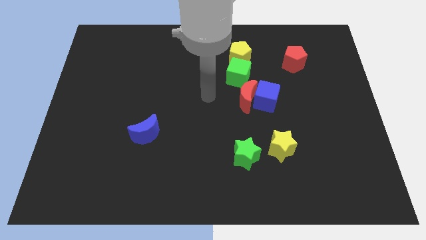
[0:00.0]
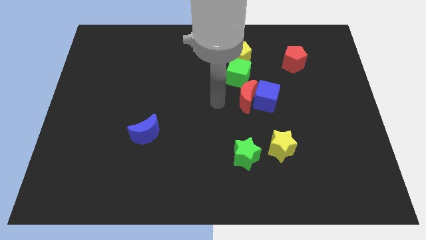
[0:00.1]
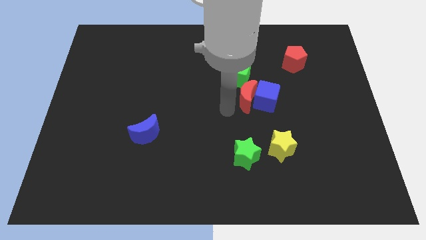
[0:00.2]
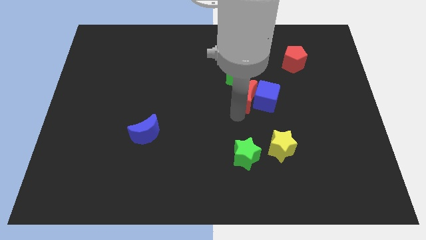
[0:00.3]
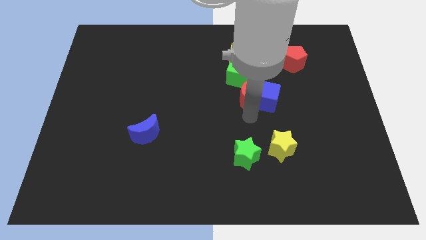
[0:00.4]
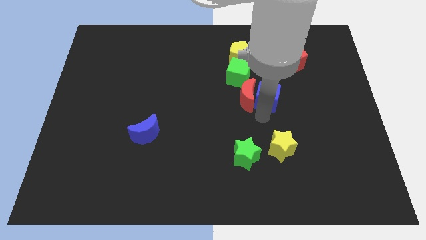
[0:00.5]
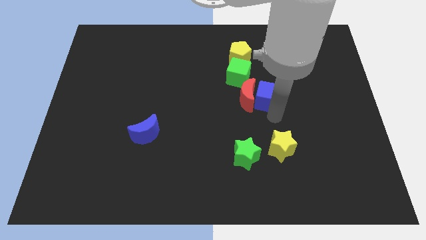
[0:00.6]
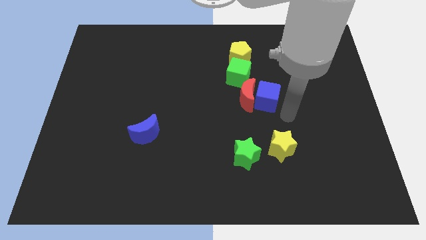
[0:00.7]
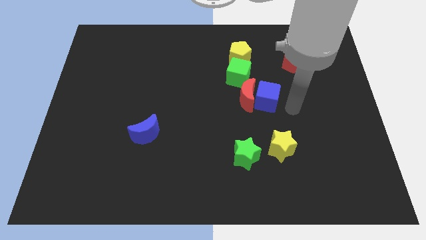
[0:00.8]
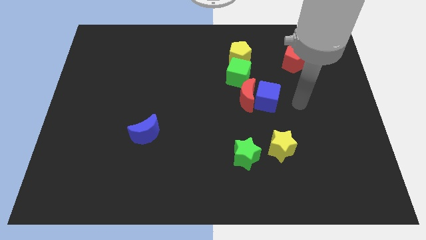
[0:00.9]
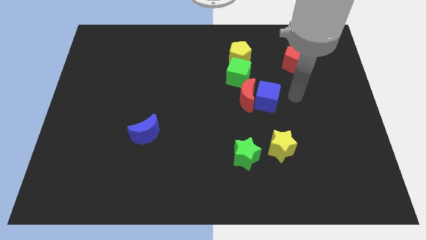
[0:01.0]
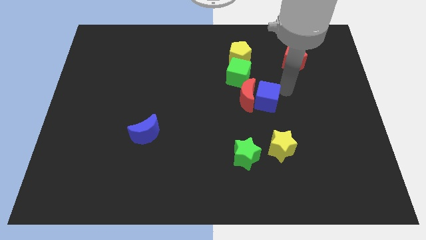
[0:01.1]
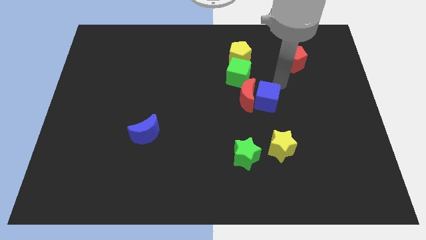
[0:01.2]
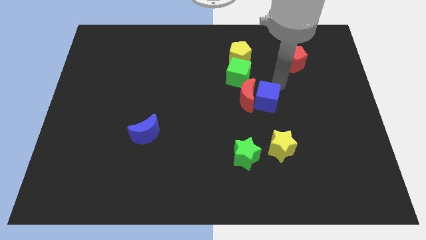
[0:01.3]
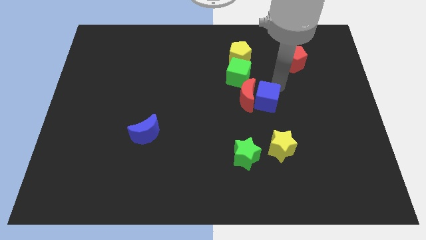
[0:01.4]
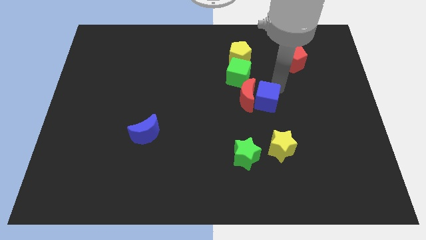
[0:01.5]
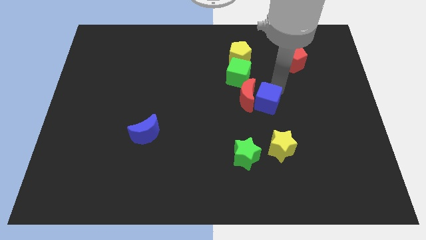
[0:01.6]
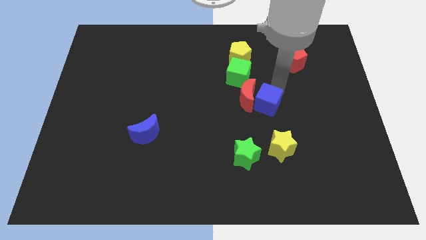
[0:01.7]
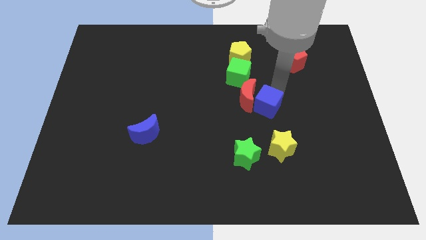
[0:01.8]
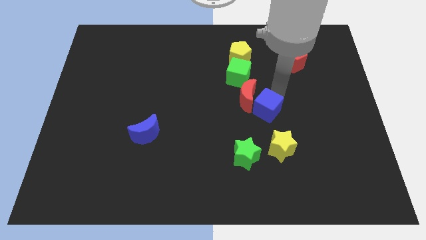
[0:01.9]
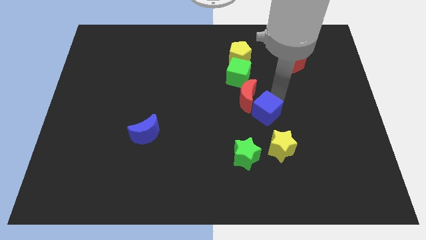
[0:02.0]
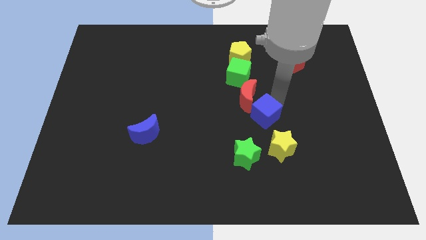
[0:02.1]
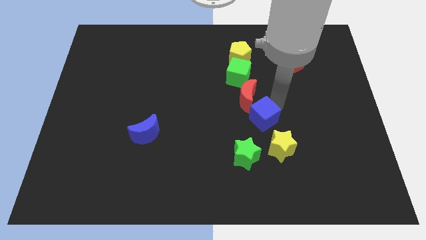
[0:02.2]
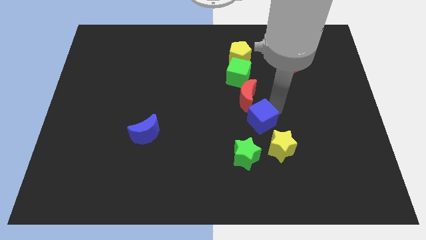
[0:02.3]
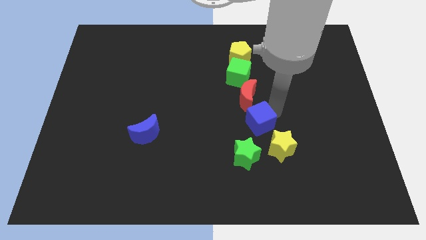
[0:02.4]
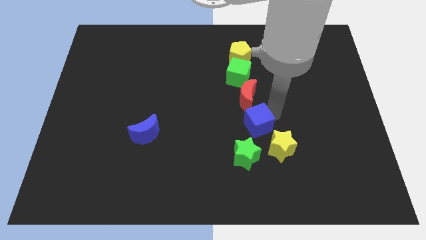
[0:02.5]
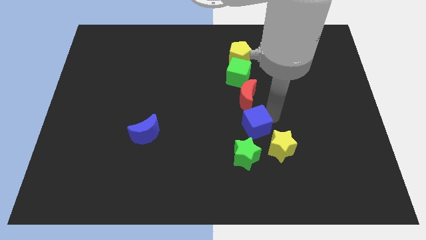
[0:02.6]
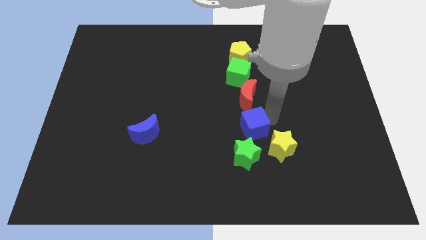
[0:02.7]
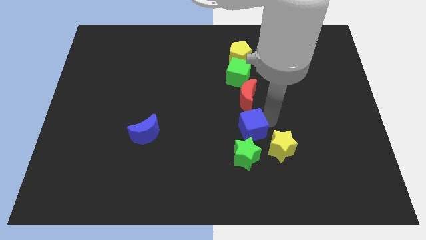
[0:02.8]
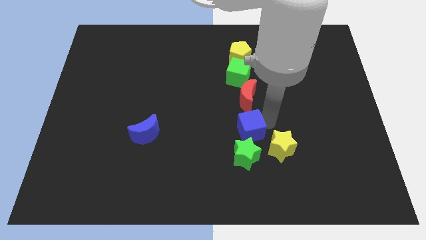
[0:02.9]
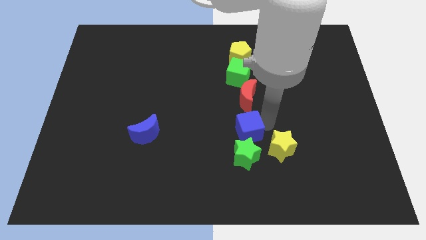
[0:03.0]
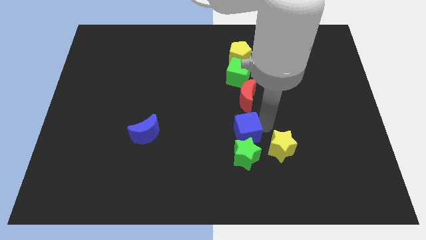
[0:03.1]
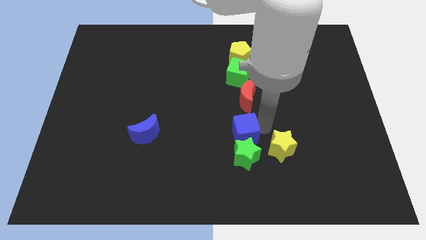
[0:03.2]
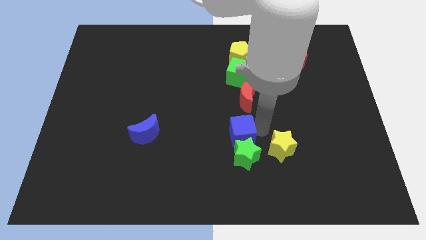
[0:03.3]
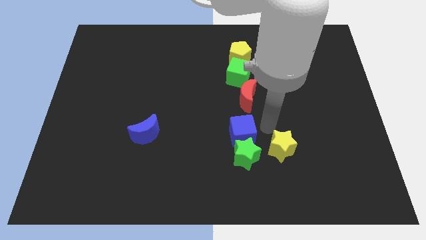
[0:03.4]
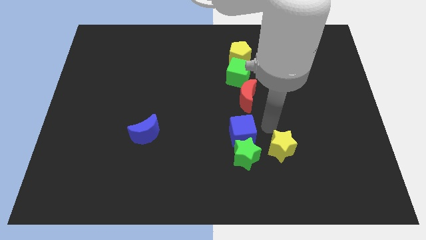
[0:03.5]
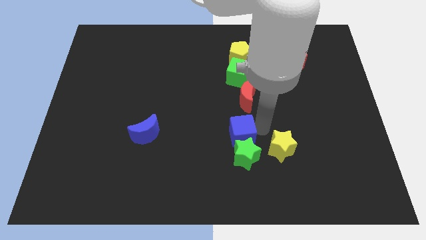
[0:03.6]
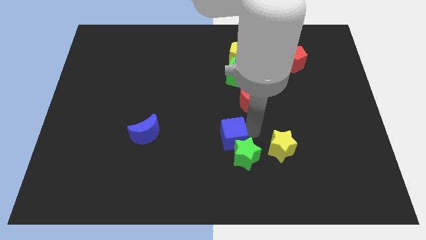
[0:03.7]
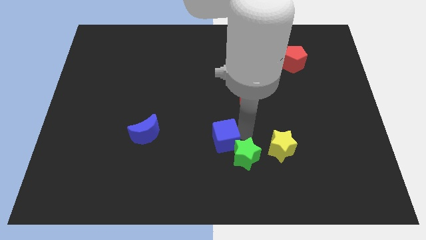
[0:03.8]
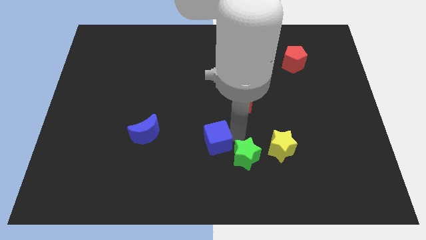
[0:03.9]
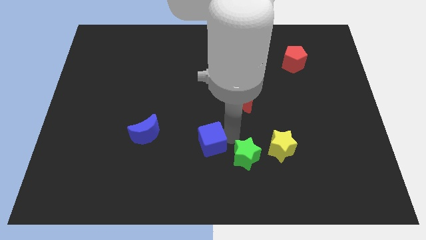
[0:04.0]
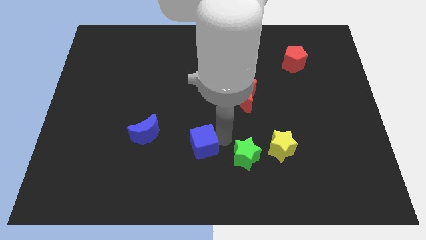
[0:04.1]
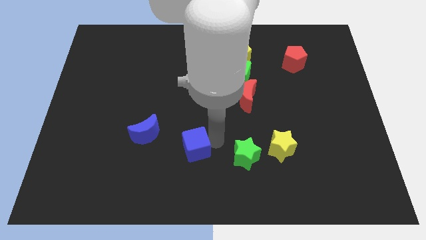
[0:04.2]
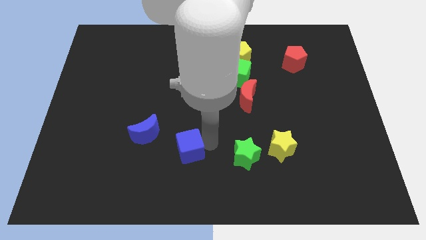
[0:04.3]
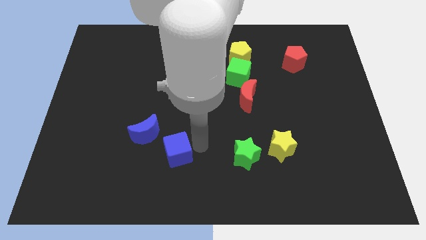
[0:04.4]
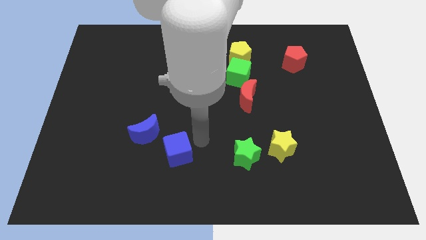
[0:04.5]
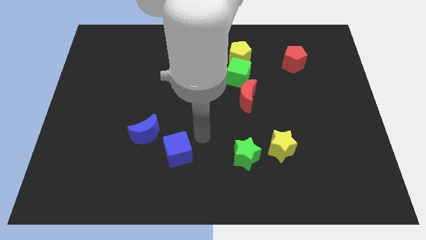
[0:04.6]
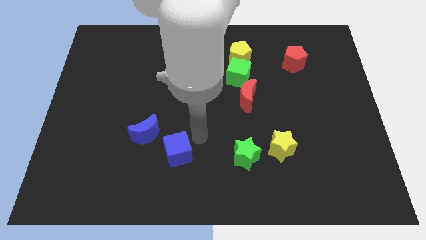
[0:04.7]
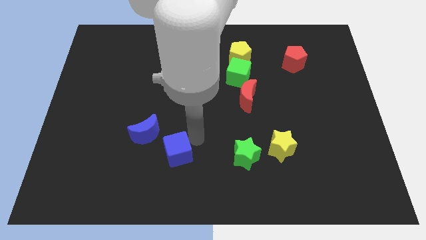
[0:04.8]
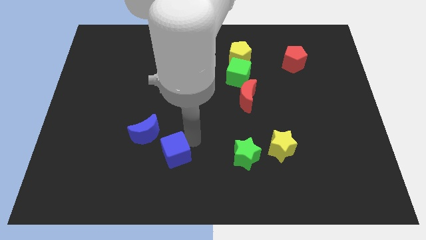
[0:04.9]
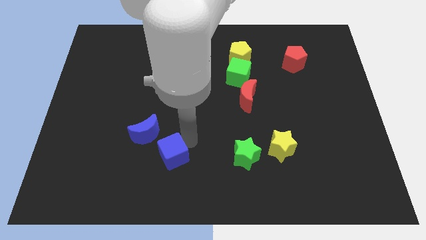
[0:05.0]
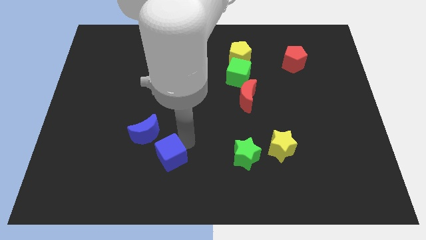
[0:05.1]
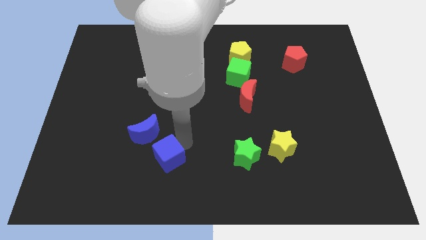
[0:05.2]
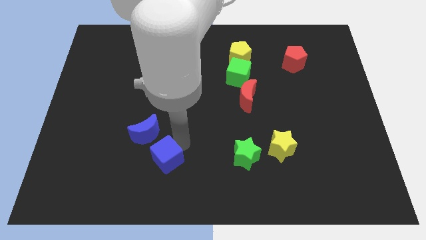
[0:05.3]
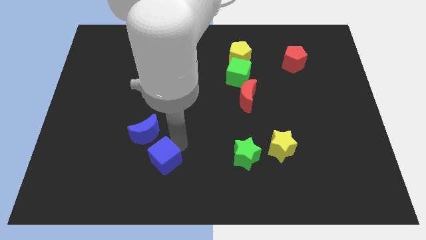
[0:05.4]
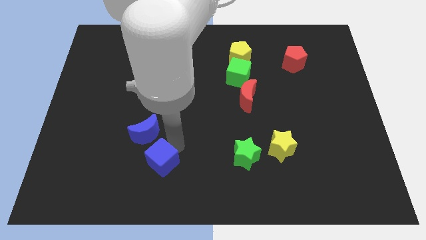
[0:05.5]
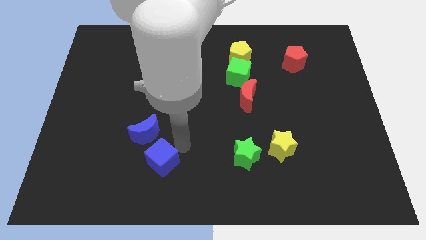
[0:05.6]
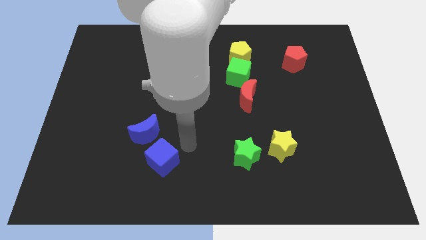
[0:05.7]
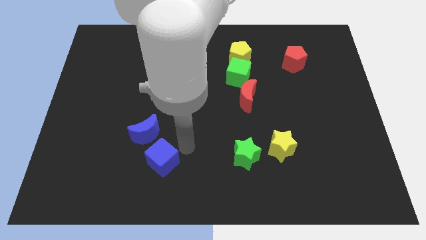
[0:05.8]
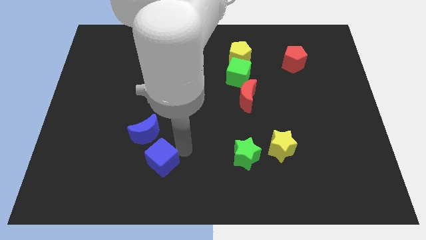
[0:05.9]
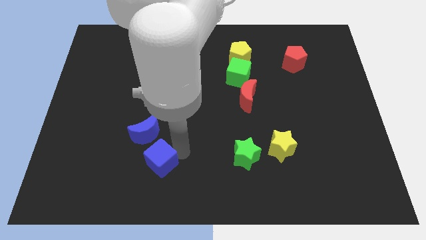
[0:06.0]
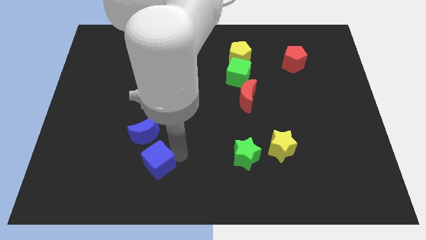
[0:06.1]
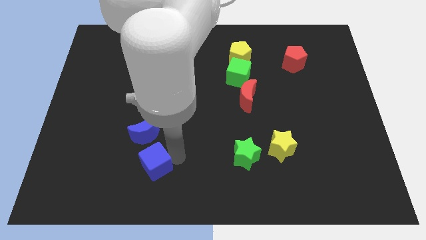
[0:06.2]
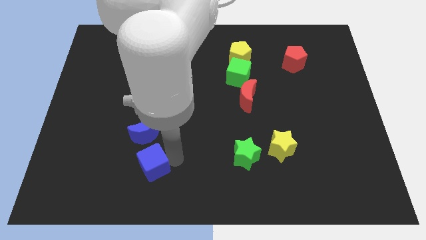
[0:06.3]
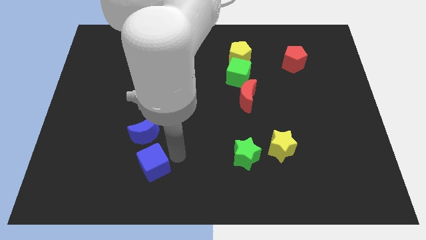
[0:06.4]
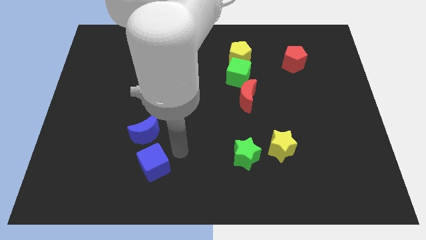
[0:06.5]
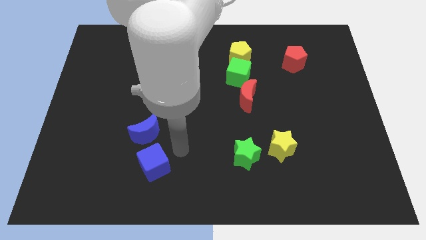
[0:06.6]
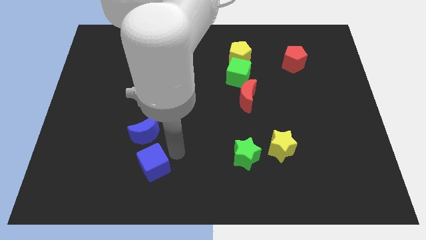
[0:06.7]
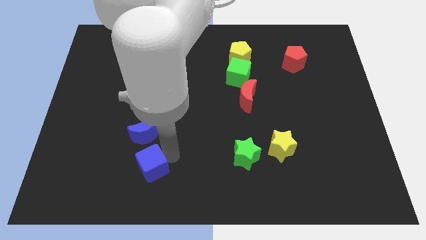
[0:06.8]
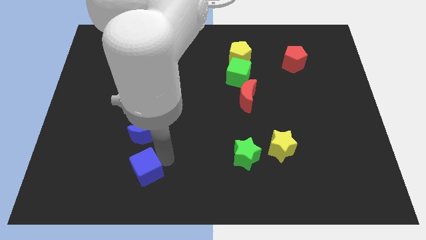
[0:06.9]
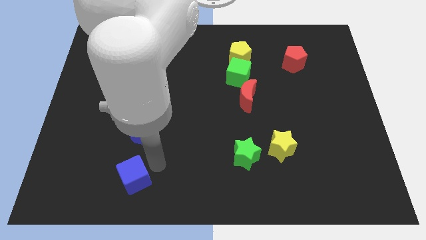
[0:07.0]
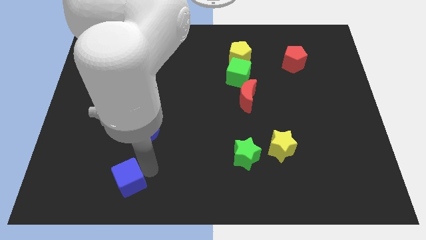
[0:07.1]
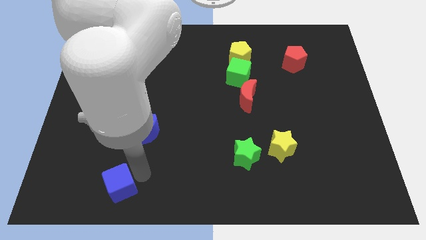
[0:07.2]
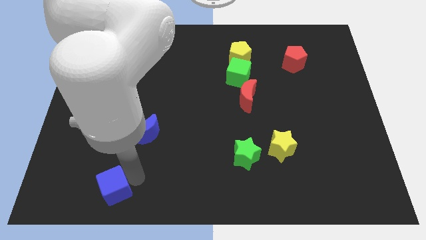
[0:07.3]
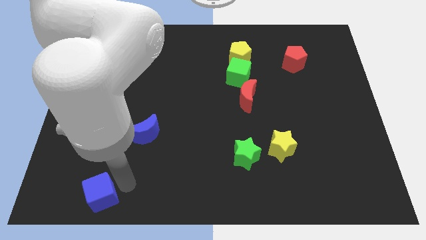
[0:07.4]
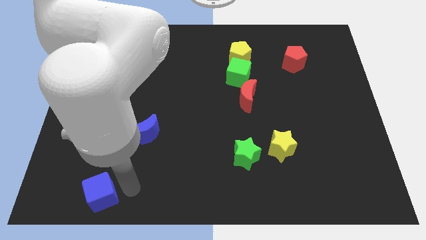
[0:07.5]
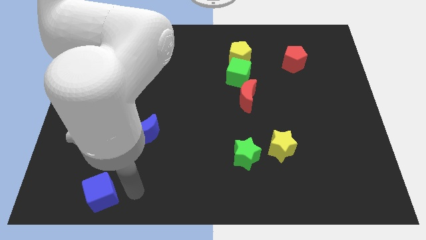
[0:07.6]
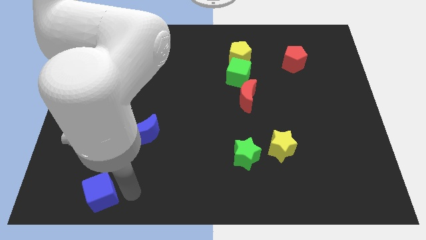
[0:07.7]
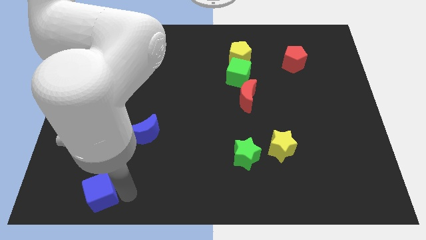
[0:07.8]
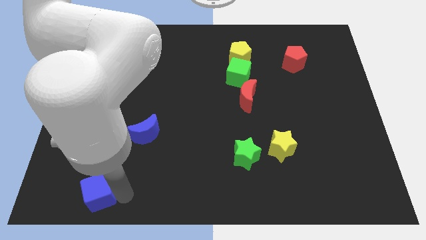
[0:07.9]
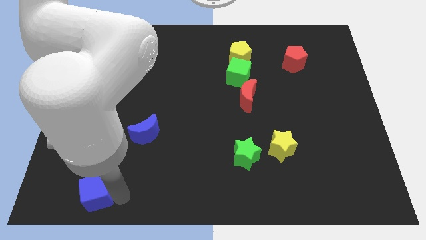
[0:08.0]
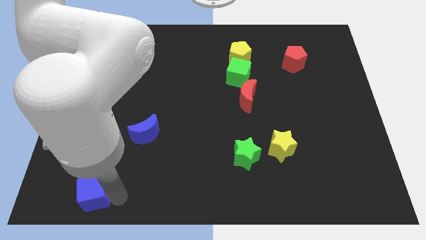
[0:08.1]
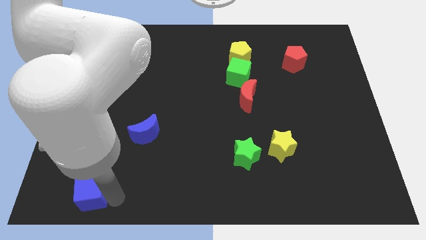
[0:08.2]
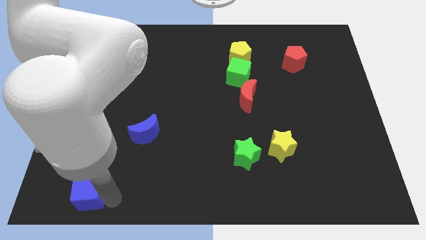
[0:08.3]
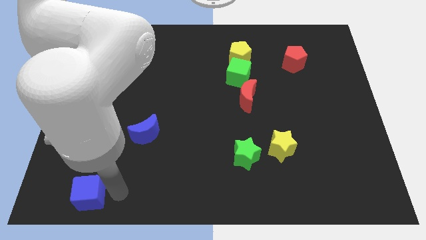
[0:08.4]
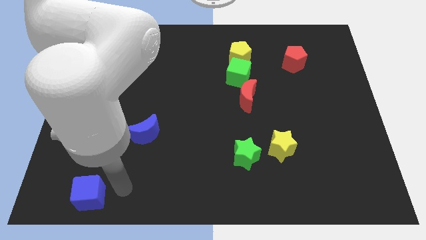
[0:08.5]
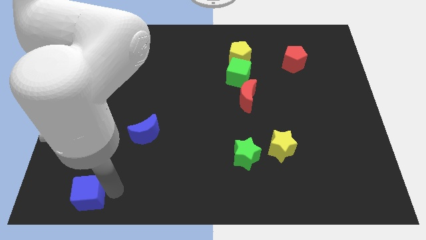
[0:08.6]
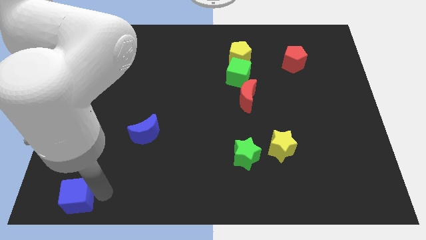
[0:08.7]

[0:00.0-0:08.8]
slide the blue cube to the bottom left
